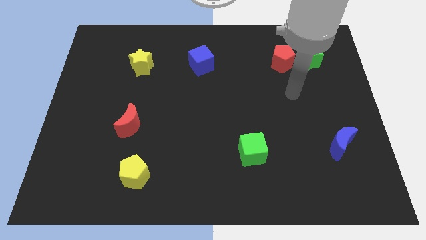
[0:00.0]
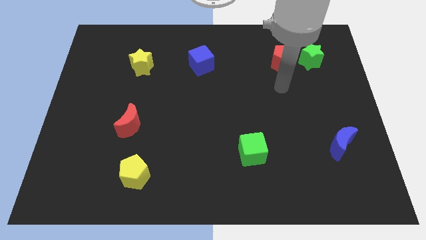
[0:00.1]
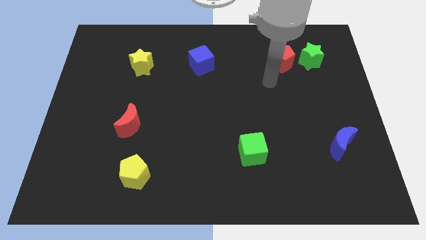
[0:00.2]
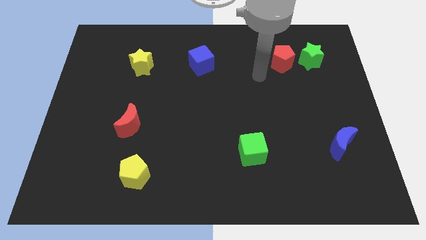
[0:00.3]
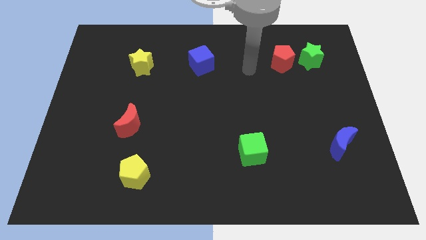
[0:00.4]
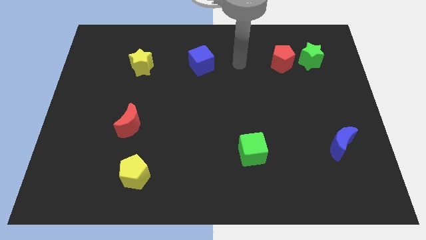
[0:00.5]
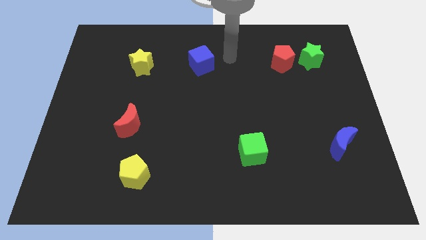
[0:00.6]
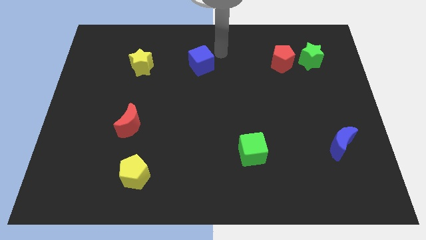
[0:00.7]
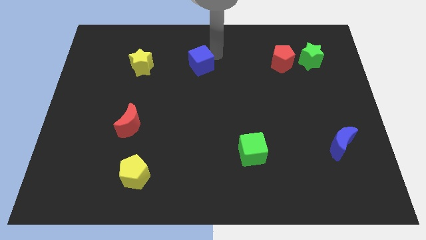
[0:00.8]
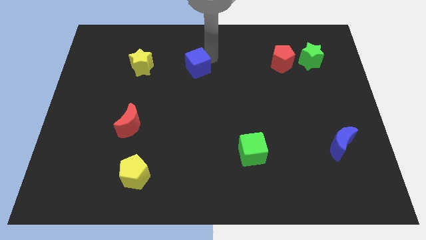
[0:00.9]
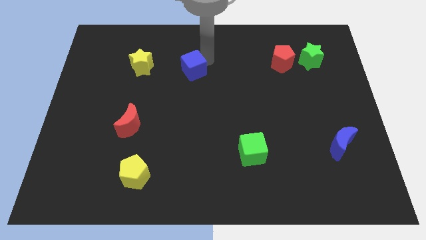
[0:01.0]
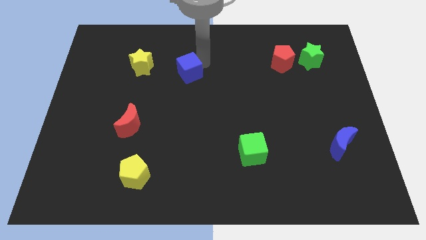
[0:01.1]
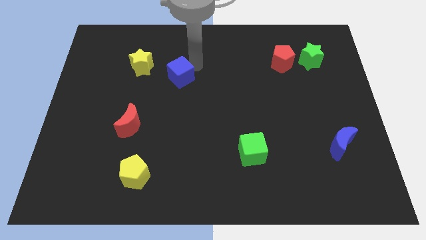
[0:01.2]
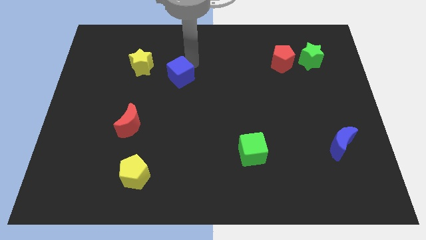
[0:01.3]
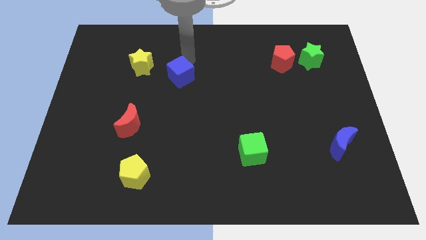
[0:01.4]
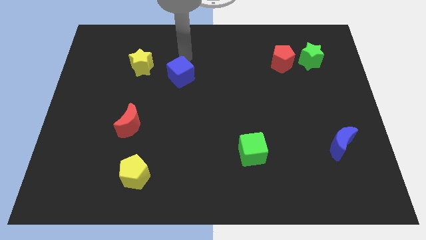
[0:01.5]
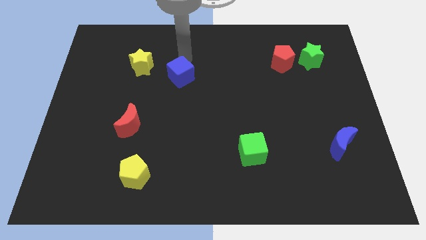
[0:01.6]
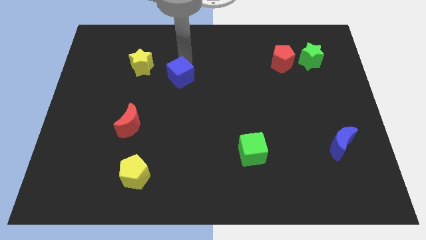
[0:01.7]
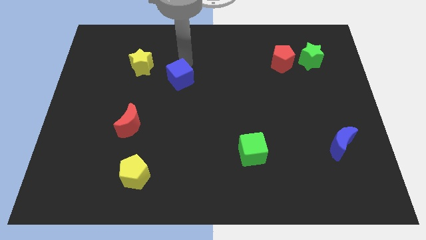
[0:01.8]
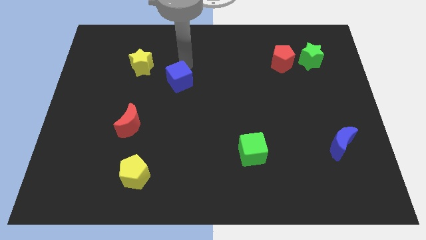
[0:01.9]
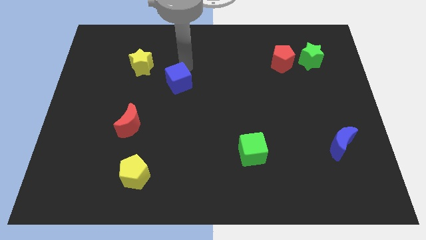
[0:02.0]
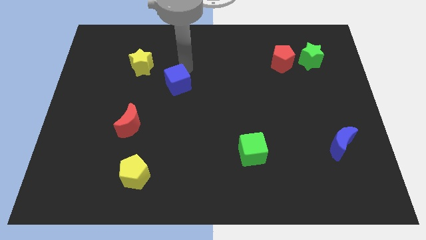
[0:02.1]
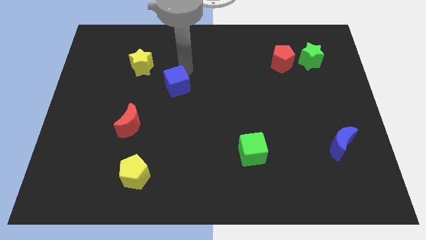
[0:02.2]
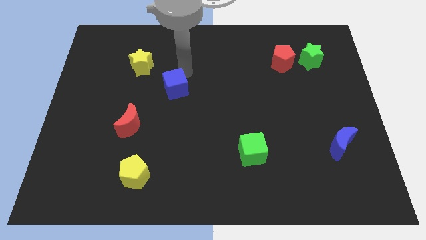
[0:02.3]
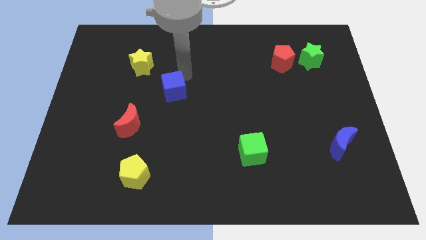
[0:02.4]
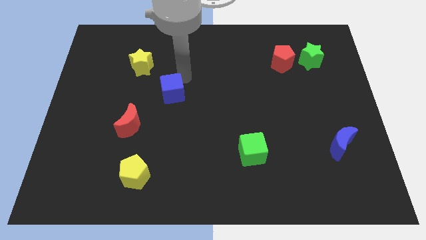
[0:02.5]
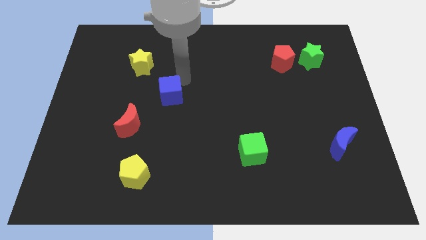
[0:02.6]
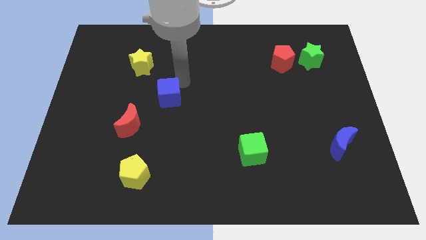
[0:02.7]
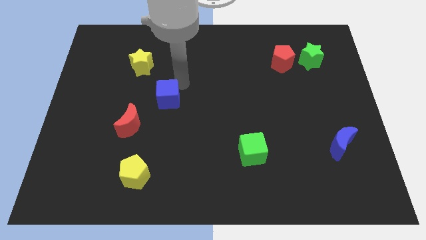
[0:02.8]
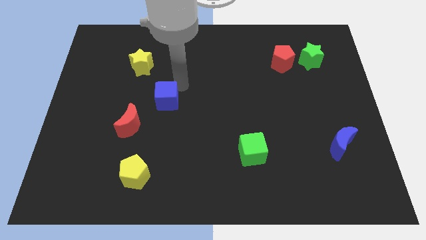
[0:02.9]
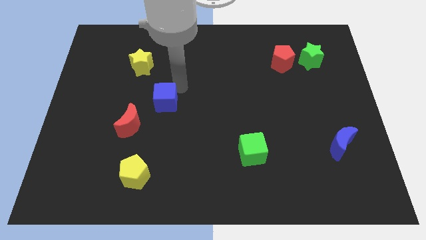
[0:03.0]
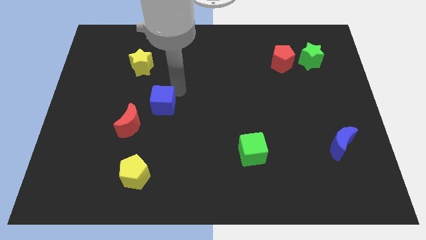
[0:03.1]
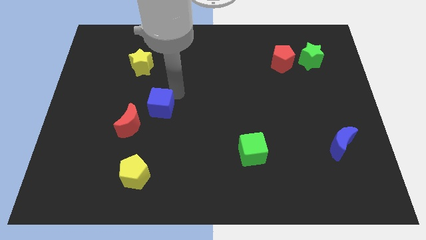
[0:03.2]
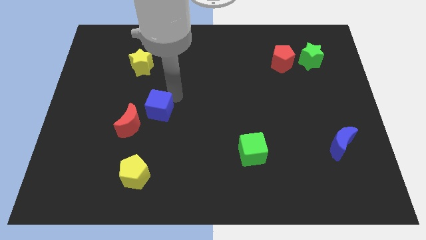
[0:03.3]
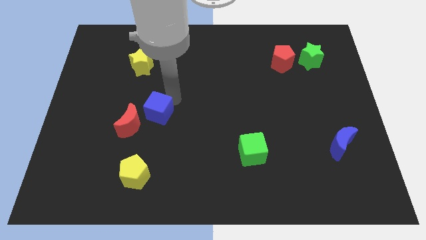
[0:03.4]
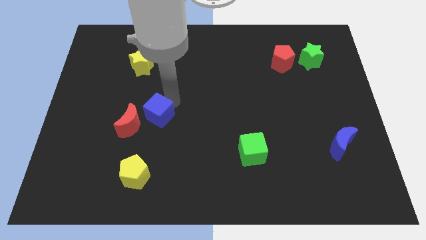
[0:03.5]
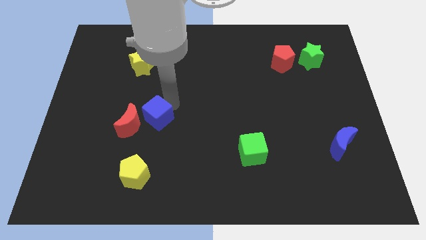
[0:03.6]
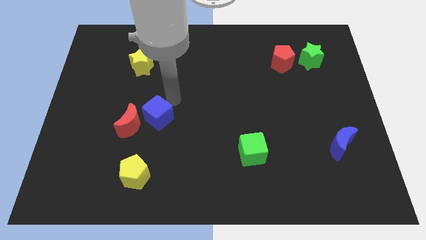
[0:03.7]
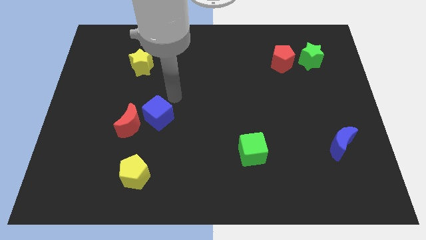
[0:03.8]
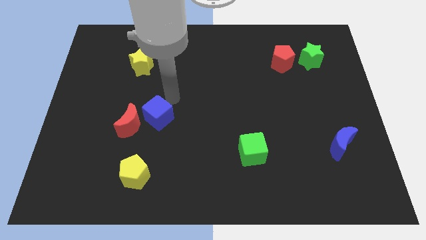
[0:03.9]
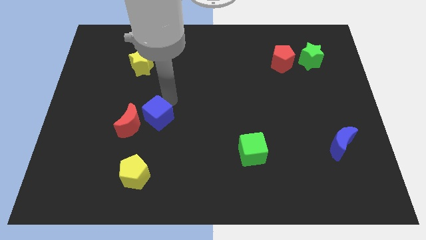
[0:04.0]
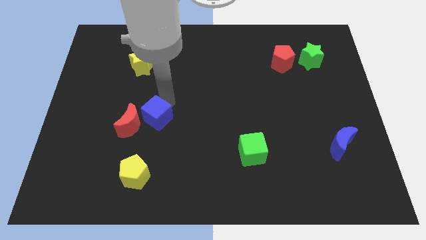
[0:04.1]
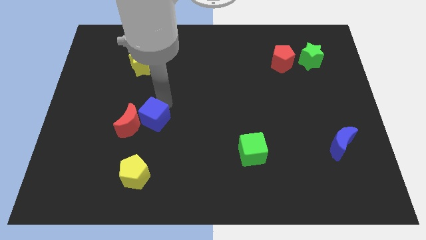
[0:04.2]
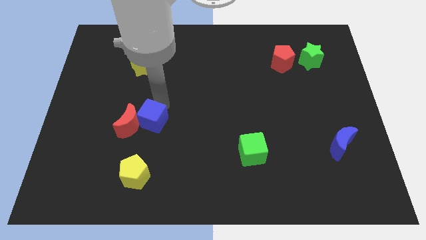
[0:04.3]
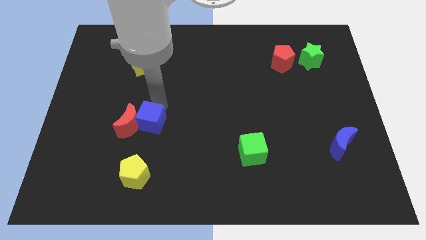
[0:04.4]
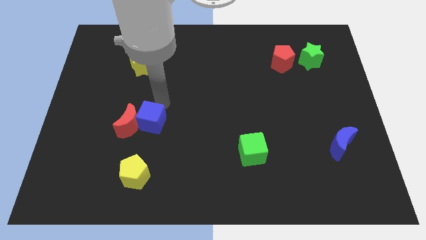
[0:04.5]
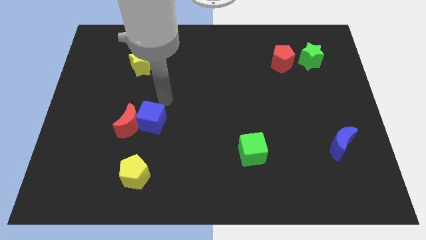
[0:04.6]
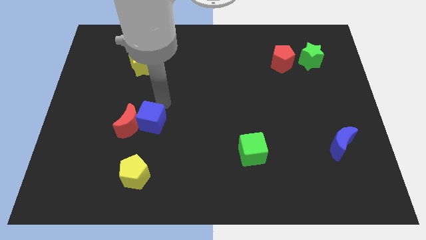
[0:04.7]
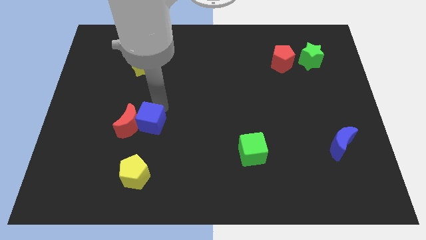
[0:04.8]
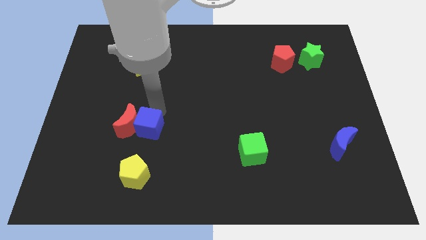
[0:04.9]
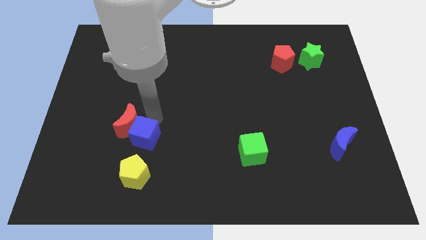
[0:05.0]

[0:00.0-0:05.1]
move the blue cube to the bottom side of the red moon
